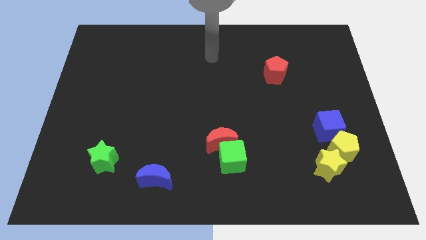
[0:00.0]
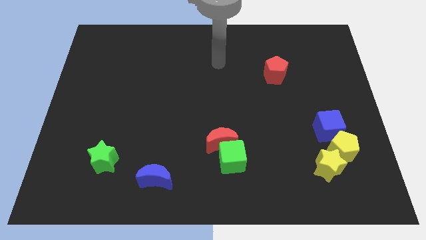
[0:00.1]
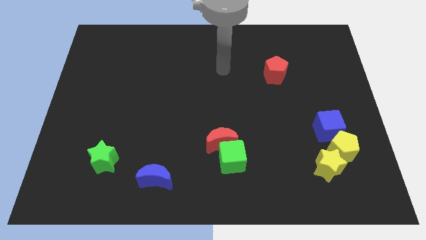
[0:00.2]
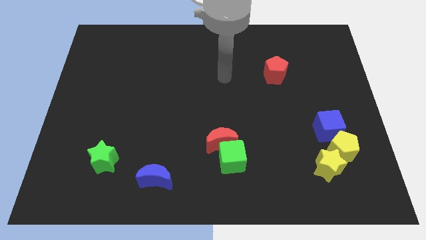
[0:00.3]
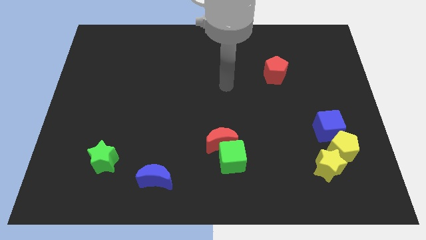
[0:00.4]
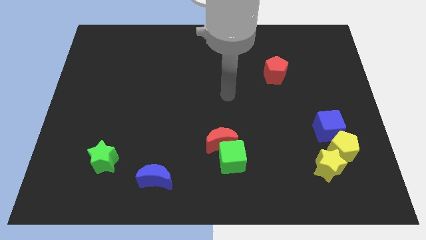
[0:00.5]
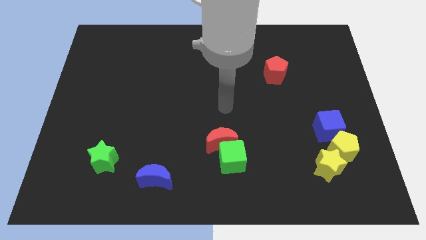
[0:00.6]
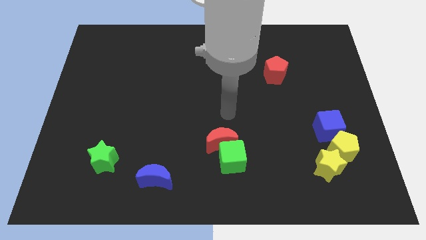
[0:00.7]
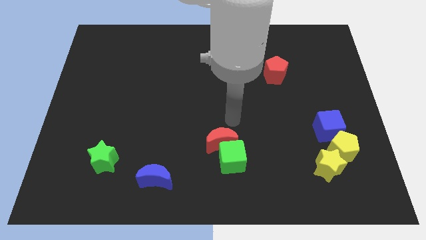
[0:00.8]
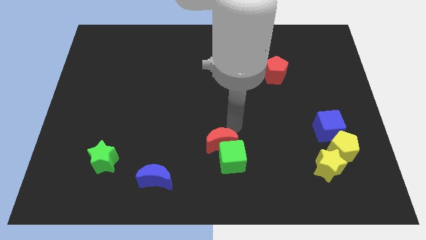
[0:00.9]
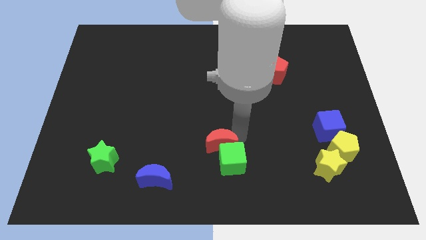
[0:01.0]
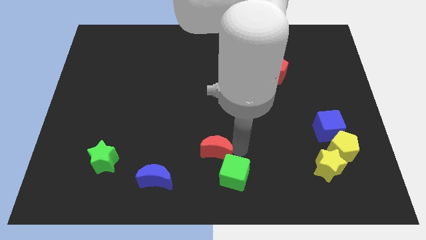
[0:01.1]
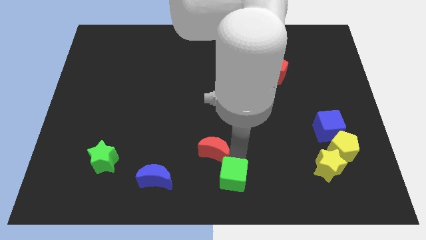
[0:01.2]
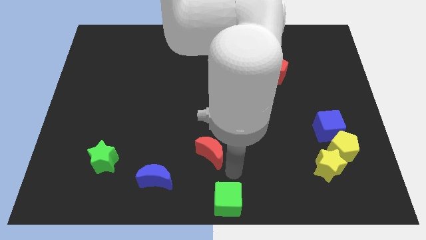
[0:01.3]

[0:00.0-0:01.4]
separate the red moon from the green cube

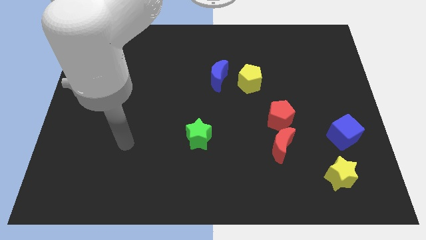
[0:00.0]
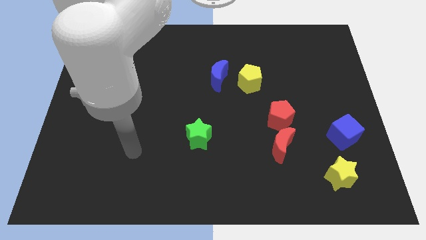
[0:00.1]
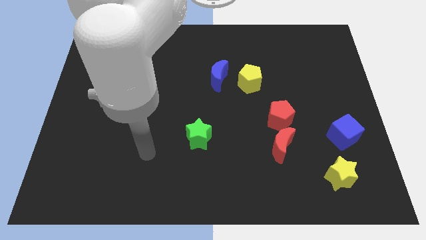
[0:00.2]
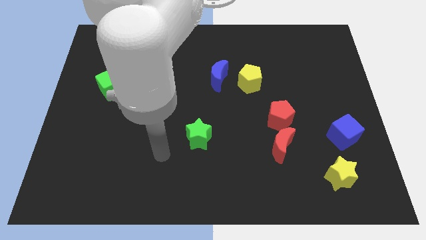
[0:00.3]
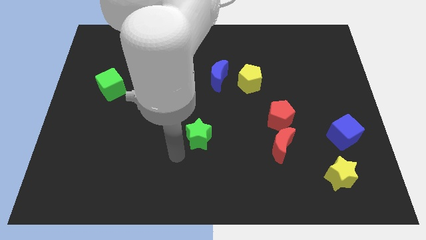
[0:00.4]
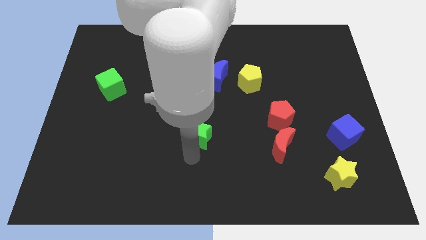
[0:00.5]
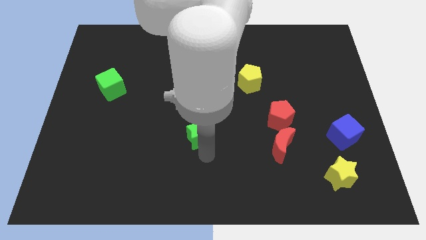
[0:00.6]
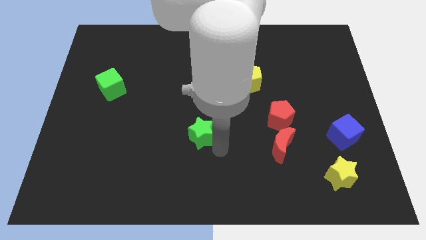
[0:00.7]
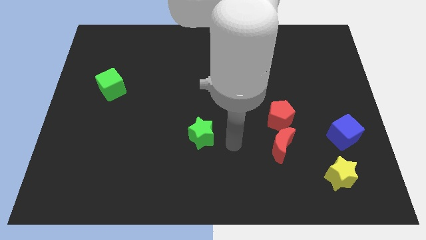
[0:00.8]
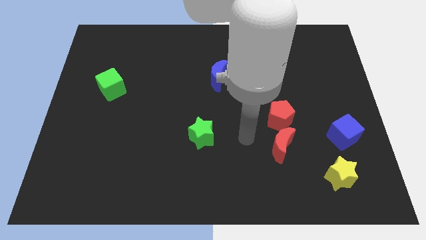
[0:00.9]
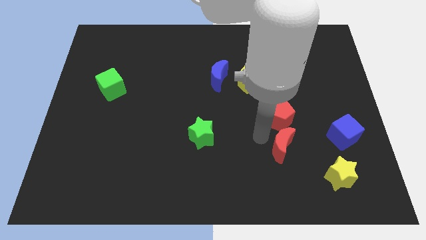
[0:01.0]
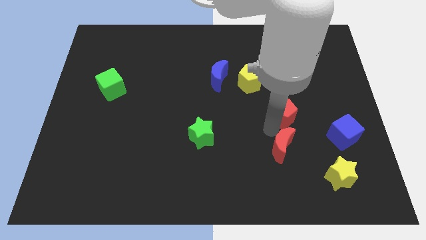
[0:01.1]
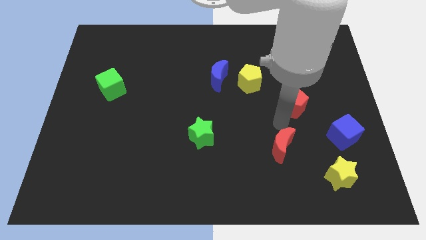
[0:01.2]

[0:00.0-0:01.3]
pull the red moon apart from the red pentagon

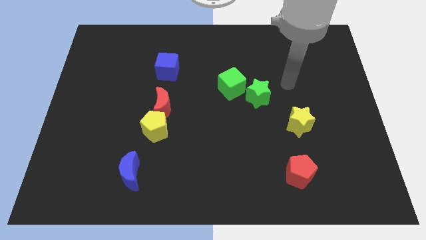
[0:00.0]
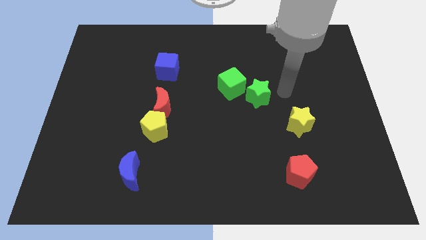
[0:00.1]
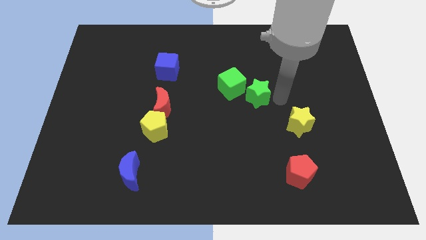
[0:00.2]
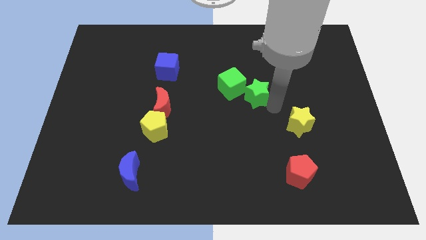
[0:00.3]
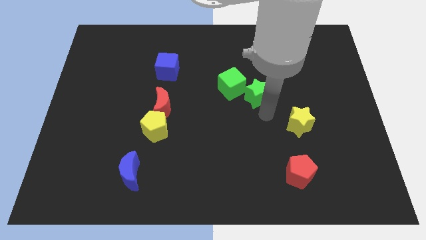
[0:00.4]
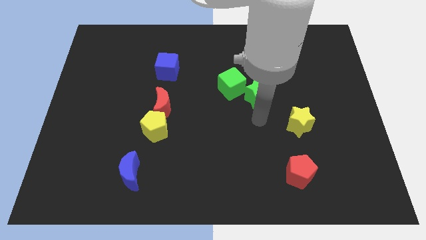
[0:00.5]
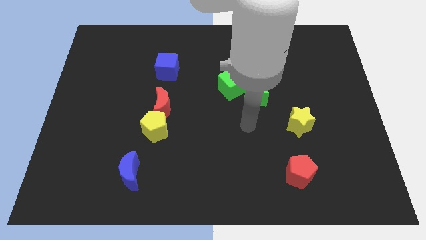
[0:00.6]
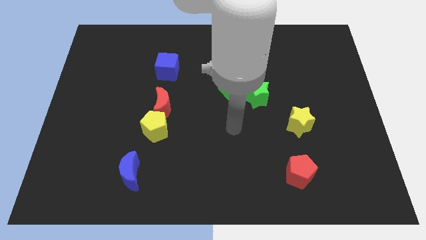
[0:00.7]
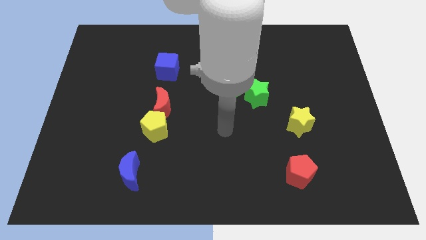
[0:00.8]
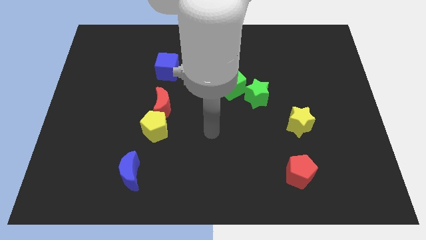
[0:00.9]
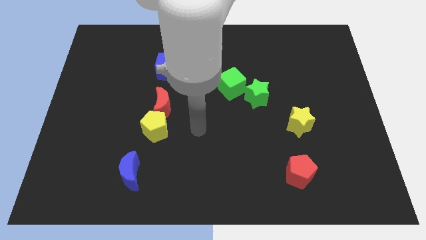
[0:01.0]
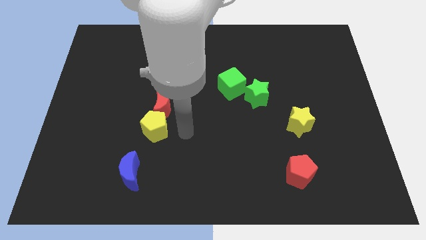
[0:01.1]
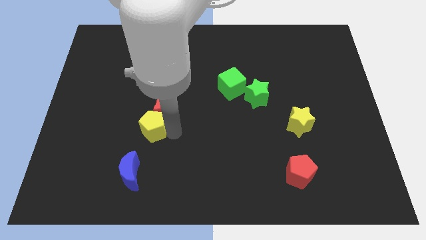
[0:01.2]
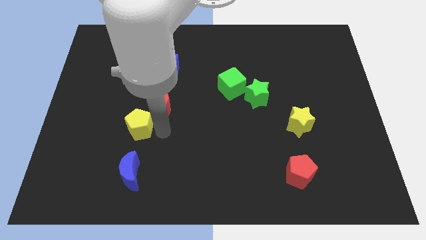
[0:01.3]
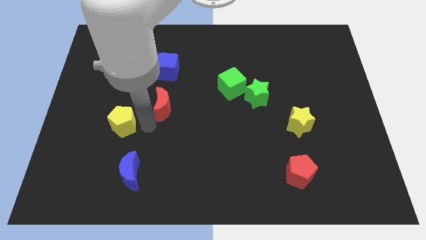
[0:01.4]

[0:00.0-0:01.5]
separate the red moon from the yellow pentagon

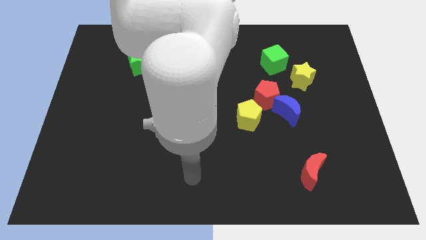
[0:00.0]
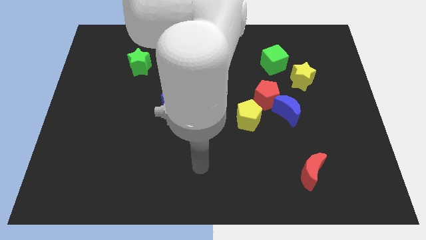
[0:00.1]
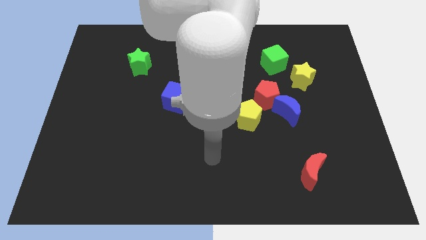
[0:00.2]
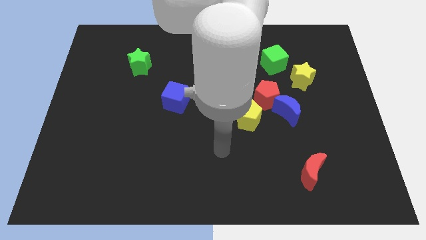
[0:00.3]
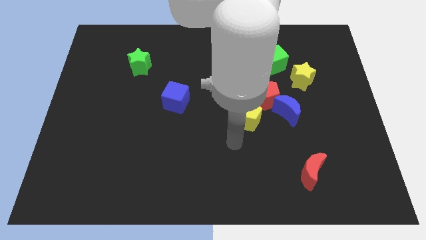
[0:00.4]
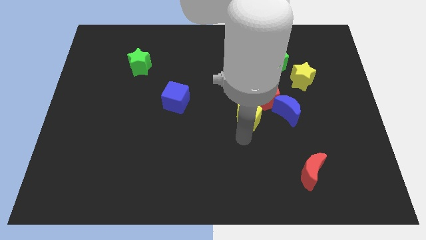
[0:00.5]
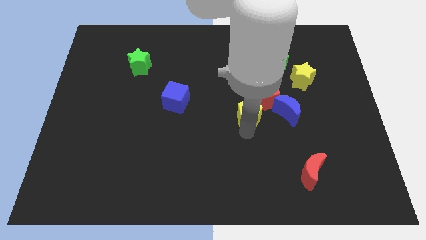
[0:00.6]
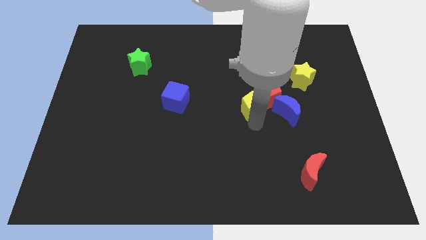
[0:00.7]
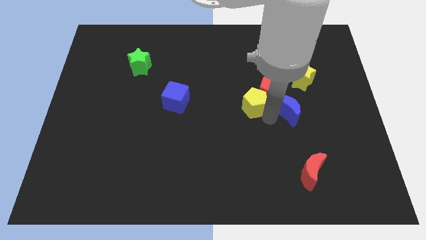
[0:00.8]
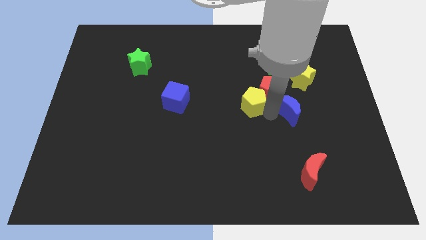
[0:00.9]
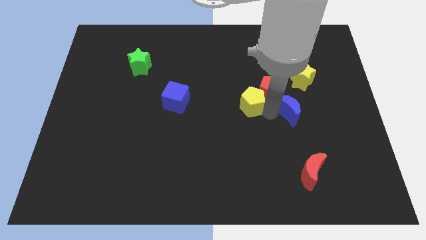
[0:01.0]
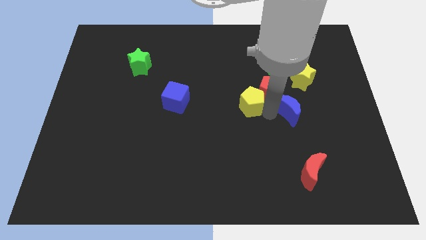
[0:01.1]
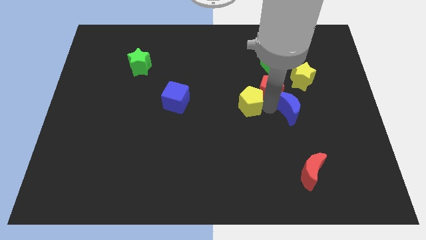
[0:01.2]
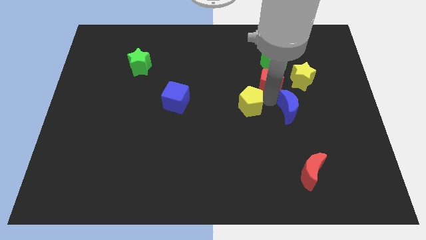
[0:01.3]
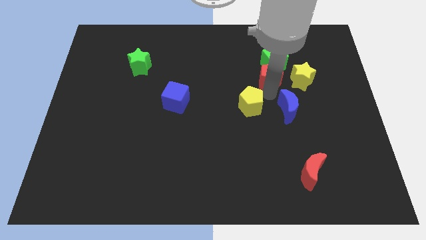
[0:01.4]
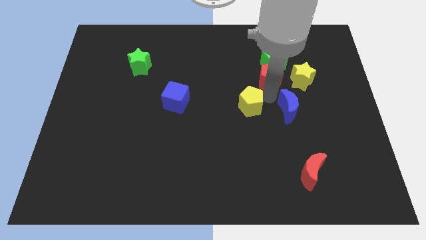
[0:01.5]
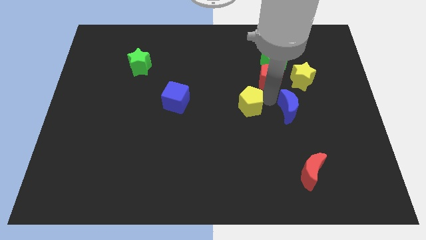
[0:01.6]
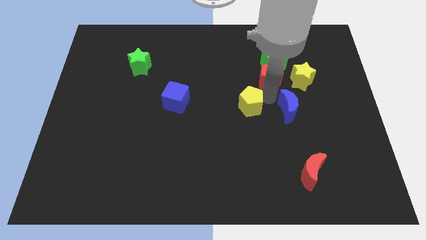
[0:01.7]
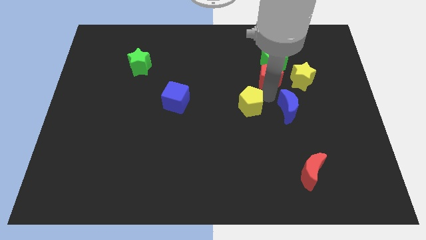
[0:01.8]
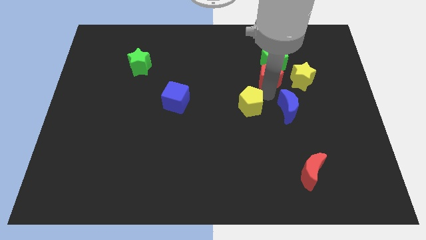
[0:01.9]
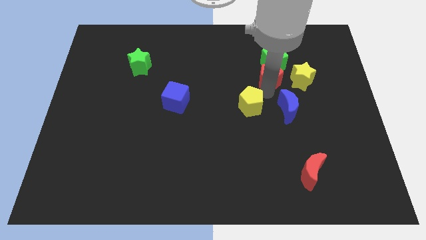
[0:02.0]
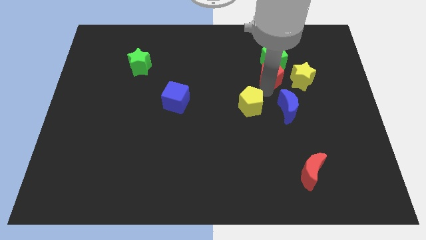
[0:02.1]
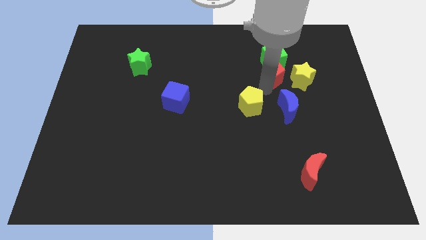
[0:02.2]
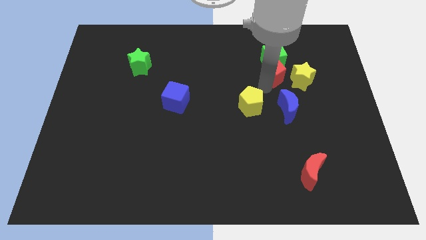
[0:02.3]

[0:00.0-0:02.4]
pull the red pentagon apart from the blue moon and yellow pentagon

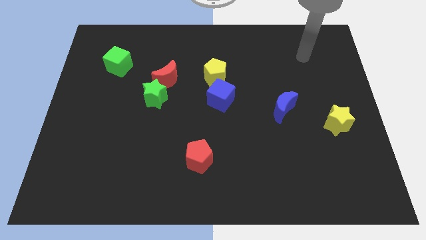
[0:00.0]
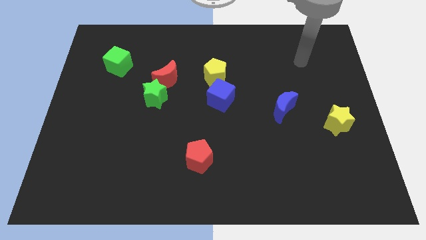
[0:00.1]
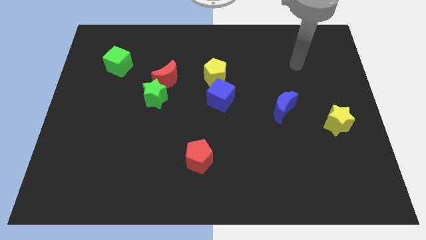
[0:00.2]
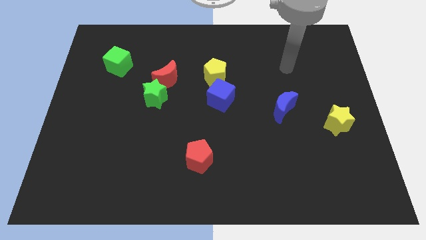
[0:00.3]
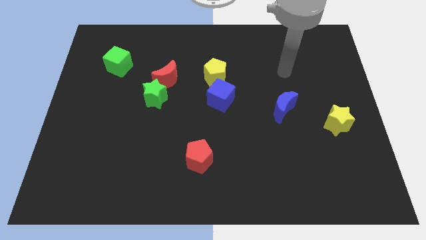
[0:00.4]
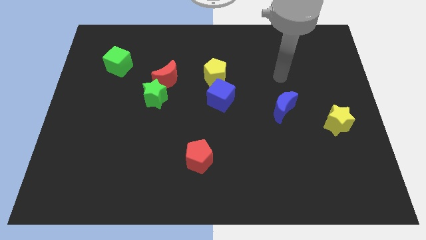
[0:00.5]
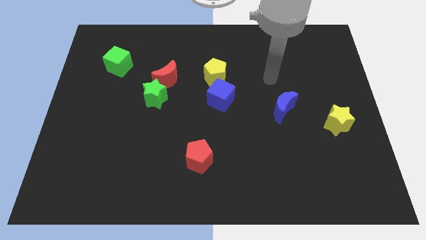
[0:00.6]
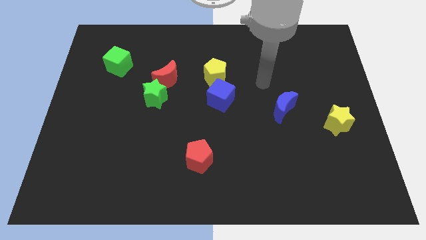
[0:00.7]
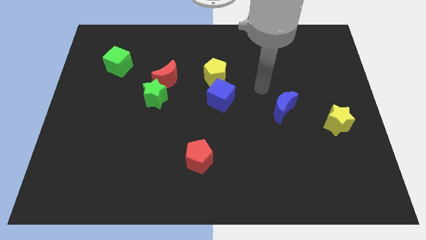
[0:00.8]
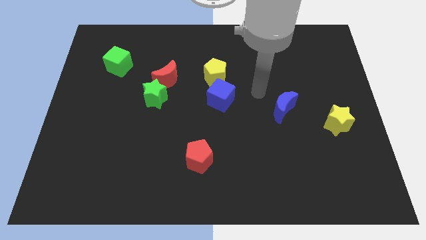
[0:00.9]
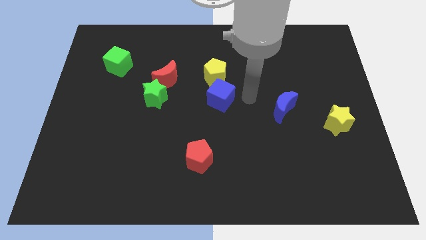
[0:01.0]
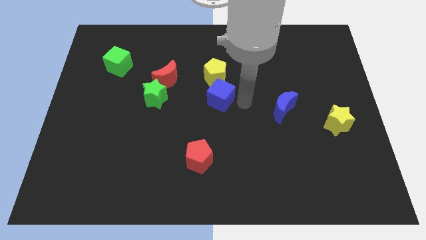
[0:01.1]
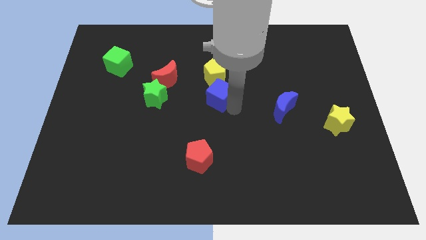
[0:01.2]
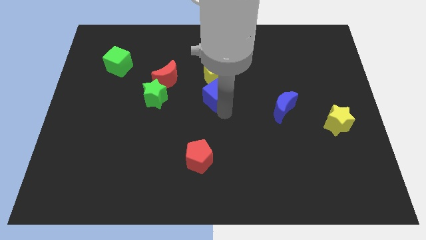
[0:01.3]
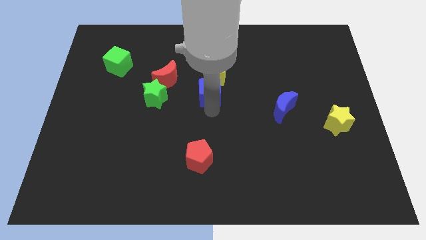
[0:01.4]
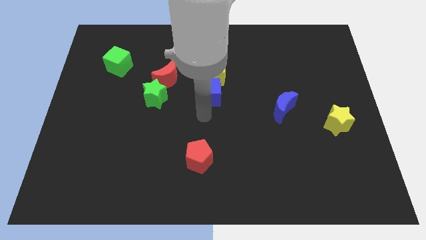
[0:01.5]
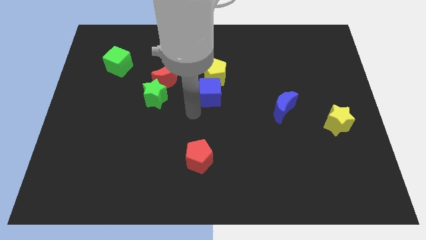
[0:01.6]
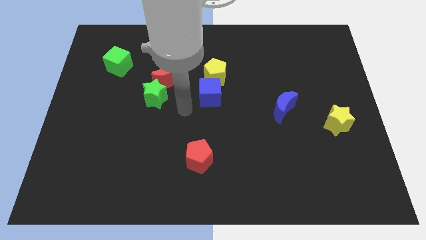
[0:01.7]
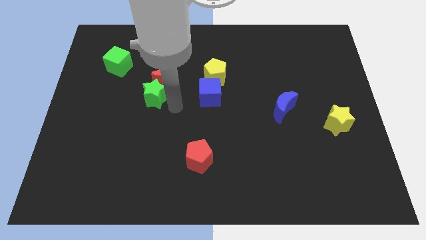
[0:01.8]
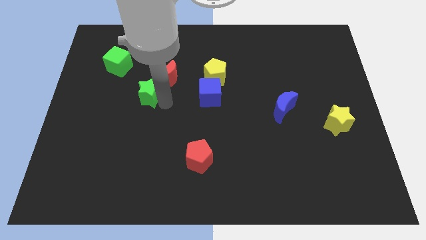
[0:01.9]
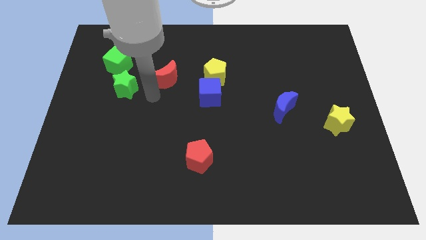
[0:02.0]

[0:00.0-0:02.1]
pull the red moon apart from the green star

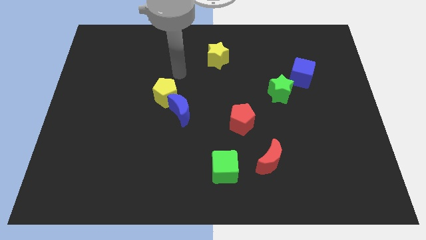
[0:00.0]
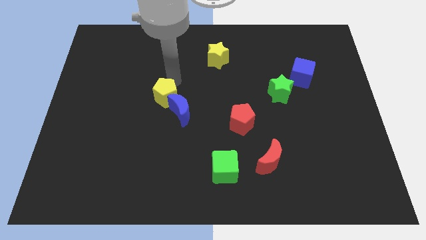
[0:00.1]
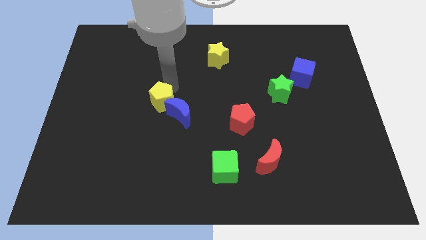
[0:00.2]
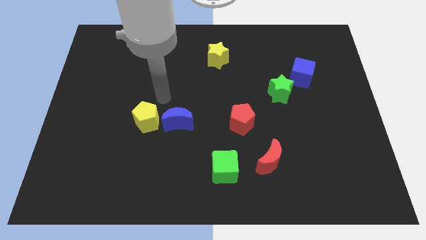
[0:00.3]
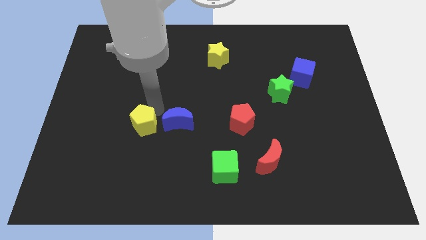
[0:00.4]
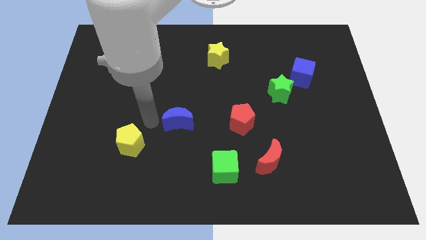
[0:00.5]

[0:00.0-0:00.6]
move the blue moon away from the yellow pentagon
